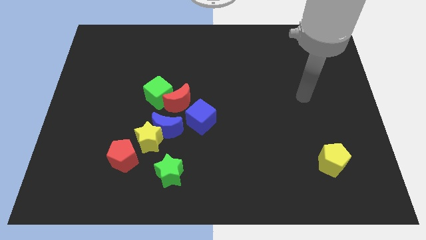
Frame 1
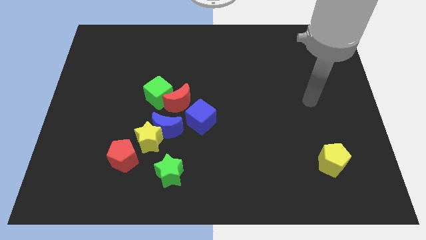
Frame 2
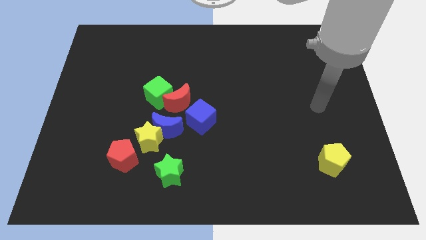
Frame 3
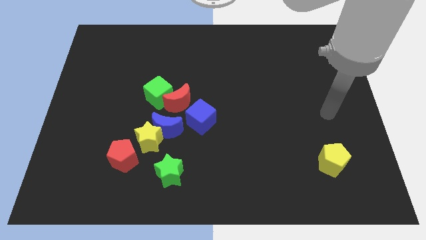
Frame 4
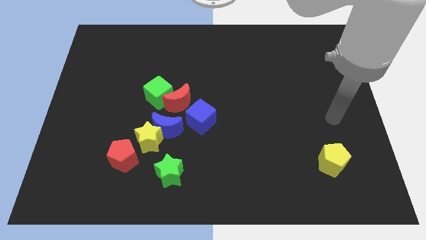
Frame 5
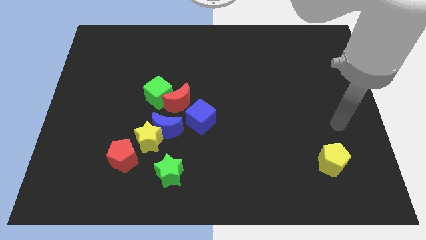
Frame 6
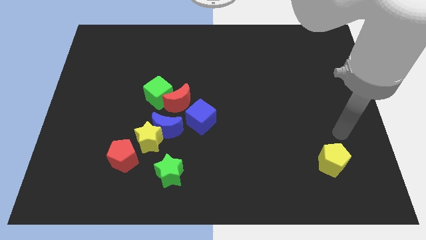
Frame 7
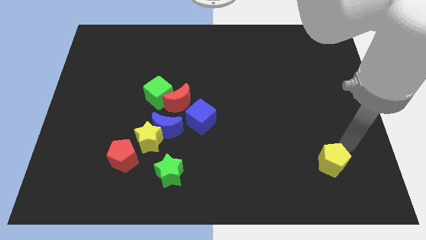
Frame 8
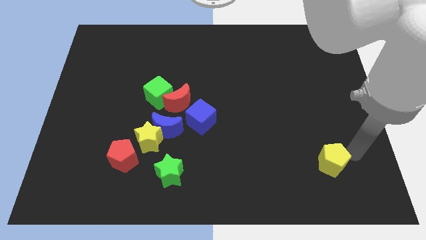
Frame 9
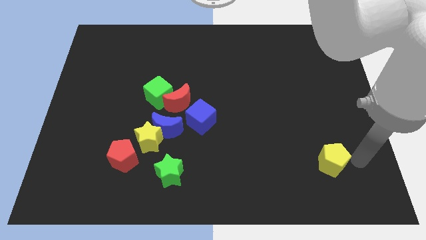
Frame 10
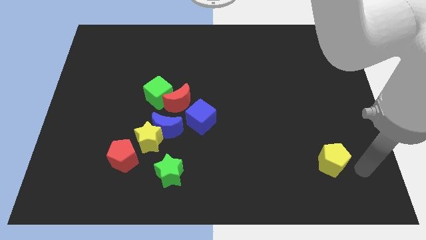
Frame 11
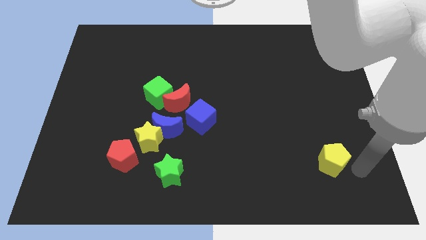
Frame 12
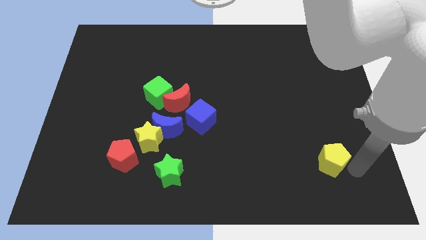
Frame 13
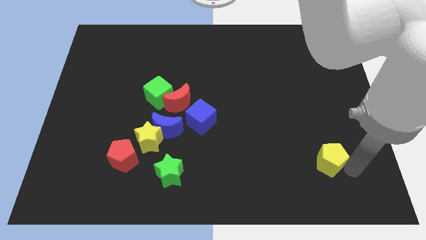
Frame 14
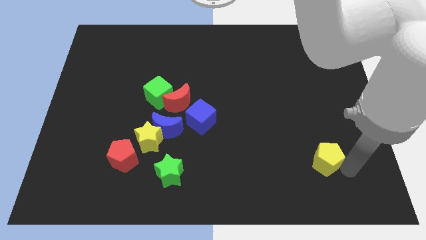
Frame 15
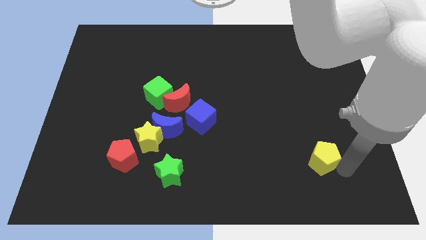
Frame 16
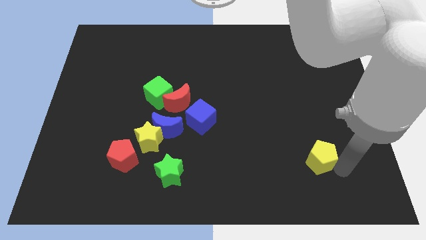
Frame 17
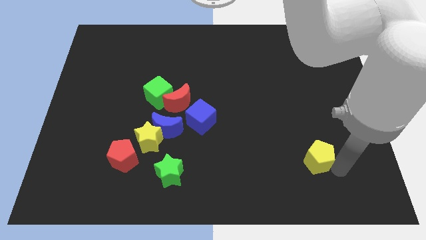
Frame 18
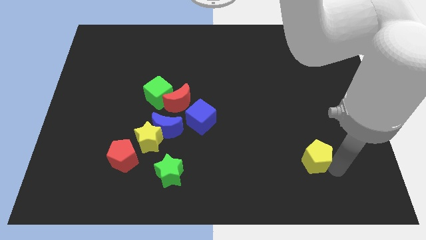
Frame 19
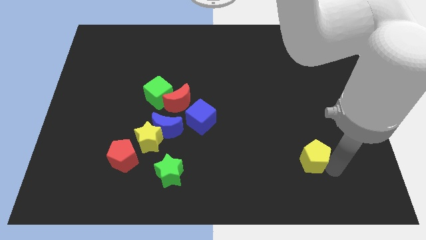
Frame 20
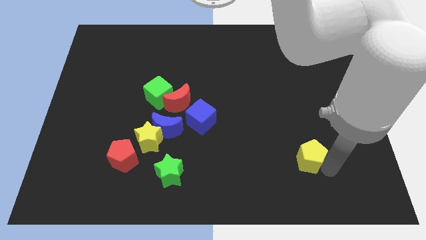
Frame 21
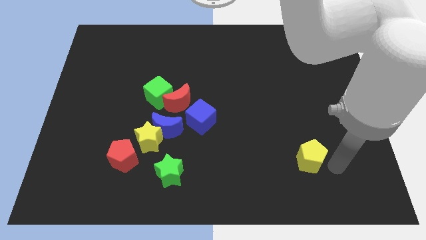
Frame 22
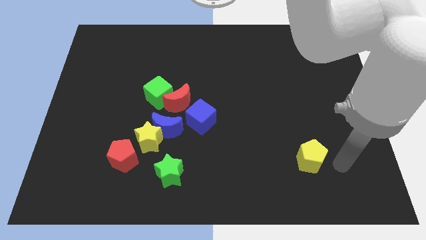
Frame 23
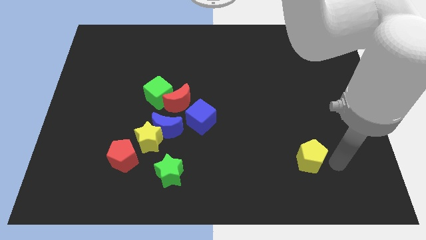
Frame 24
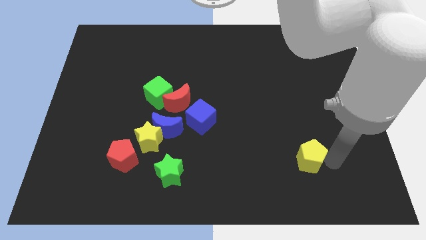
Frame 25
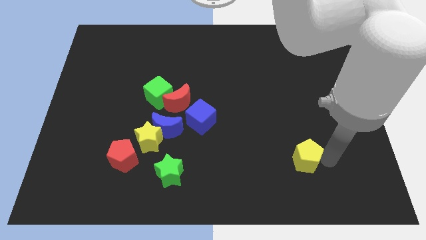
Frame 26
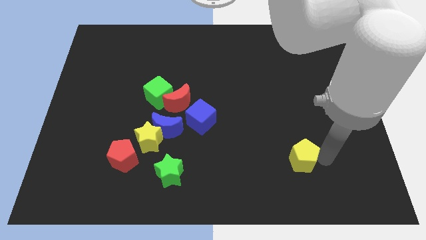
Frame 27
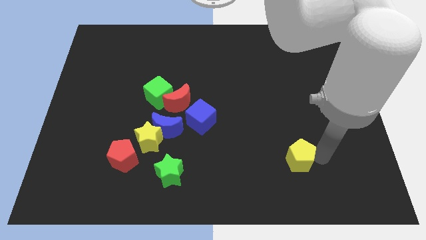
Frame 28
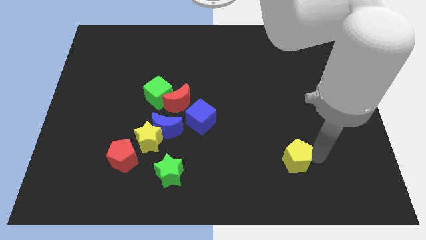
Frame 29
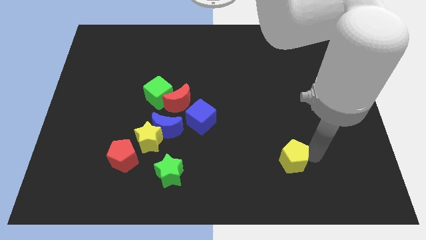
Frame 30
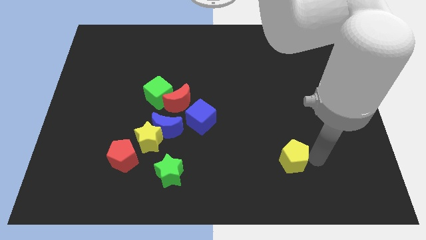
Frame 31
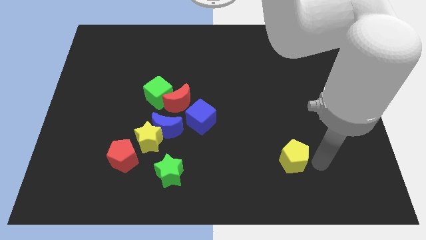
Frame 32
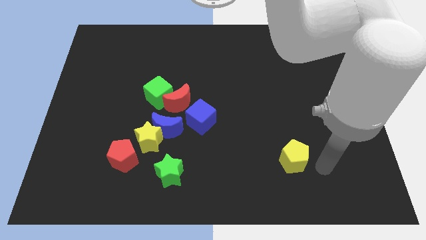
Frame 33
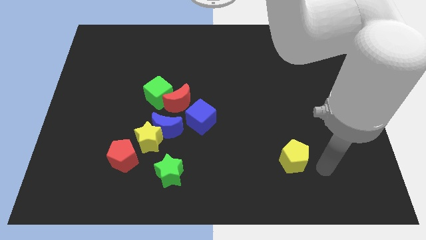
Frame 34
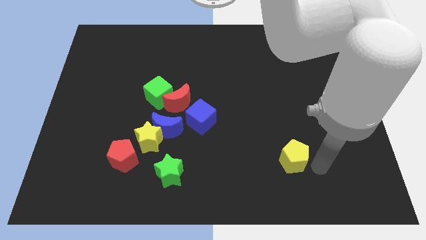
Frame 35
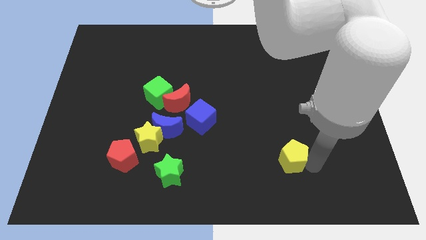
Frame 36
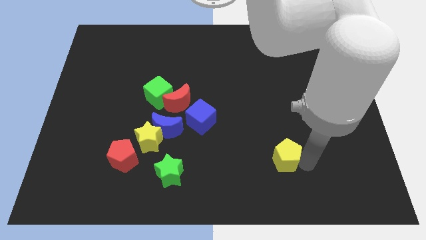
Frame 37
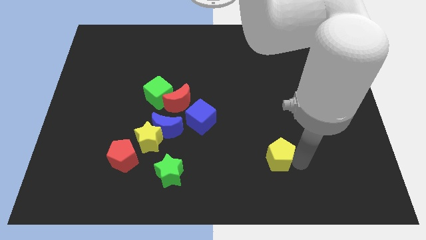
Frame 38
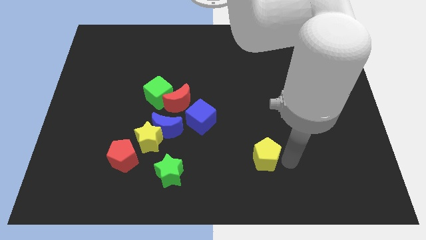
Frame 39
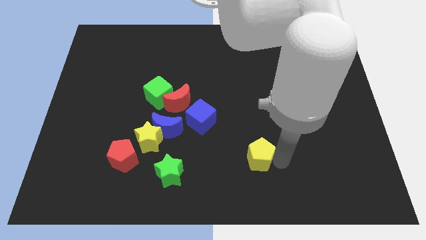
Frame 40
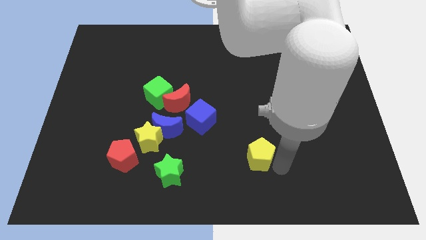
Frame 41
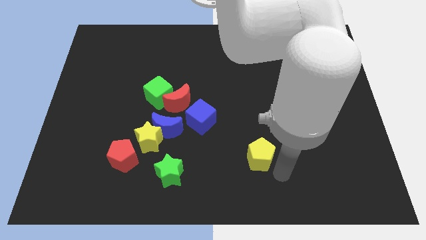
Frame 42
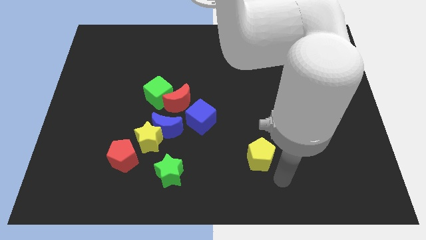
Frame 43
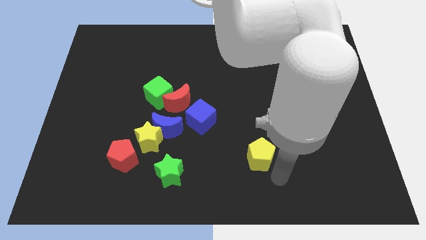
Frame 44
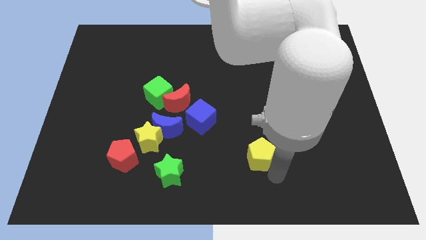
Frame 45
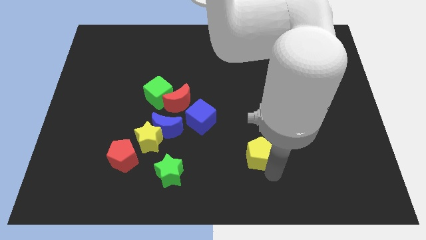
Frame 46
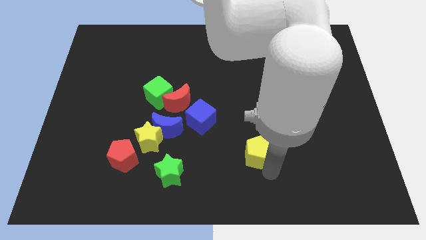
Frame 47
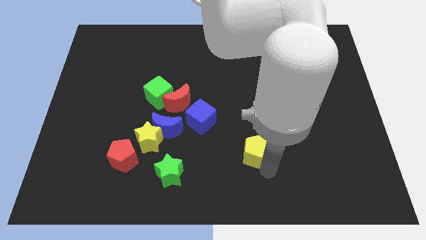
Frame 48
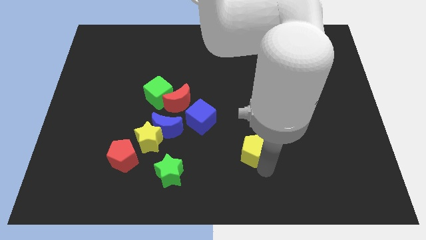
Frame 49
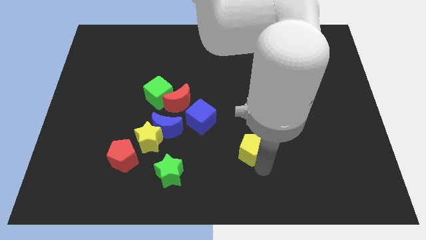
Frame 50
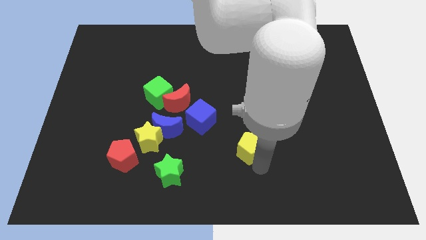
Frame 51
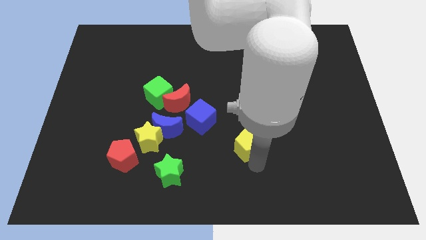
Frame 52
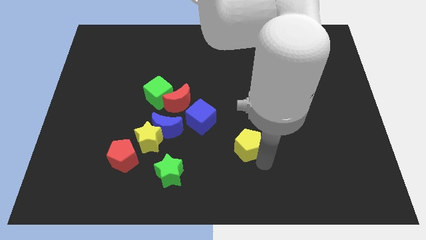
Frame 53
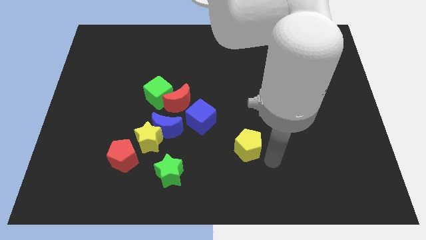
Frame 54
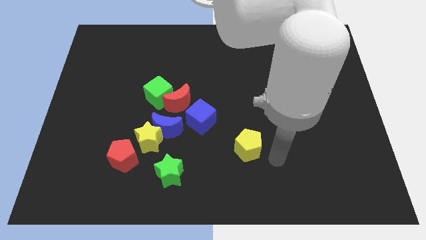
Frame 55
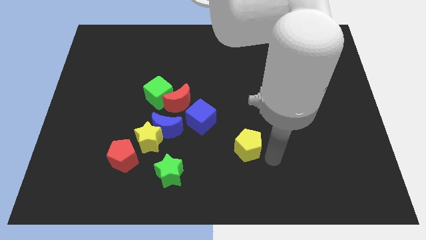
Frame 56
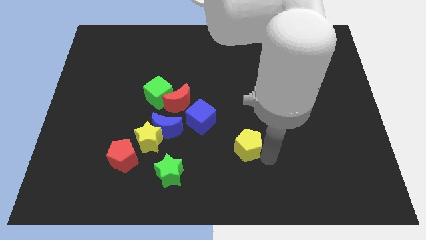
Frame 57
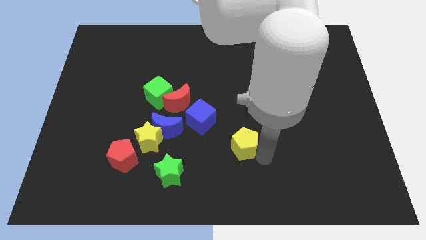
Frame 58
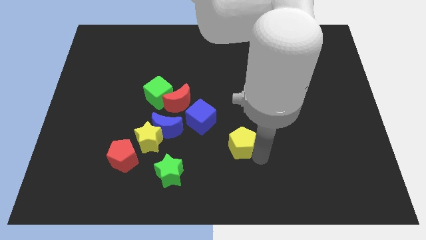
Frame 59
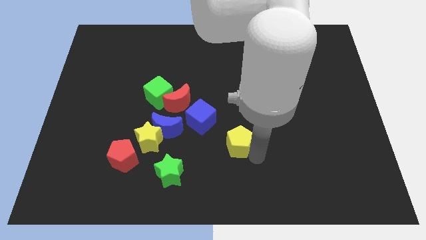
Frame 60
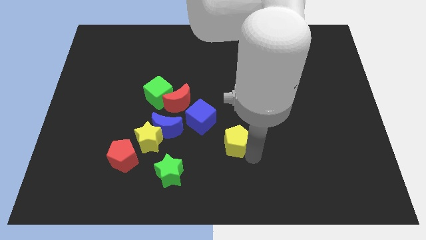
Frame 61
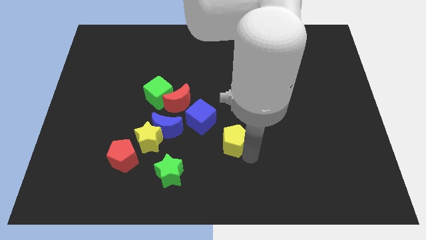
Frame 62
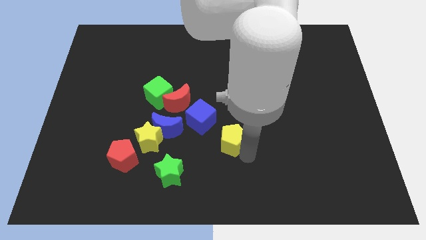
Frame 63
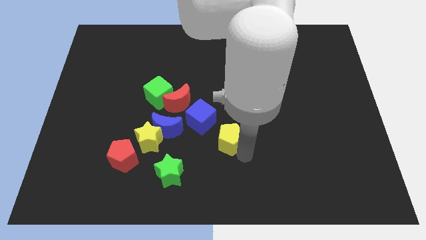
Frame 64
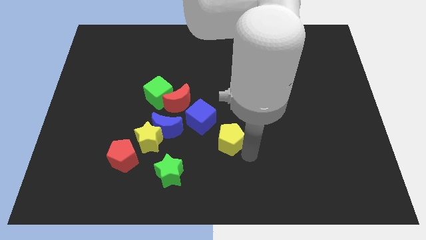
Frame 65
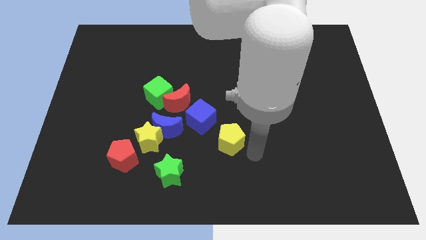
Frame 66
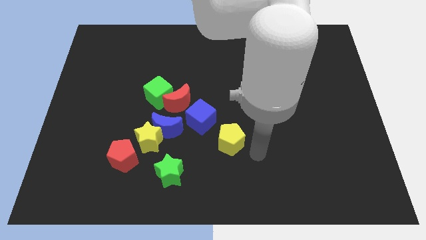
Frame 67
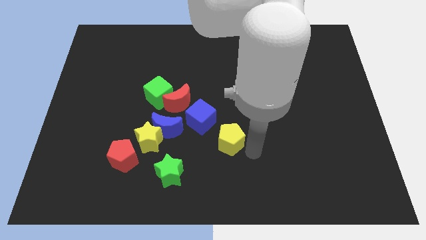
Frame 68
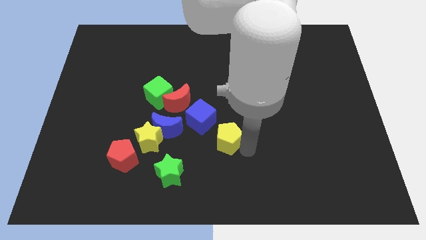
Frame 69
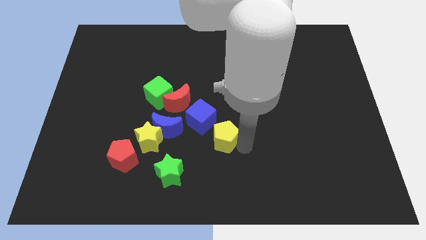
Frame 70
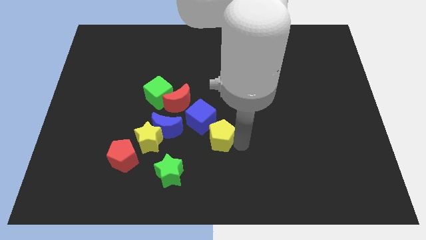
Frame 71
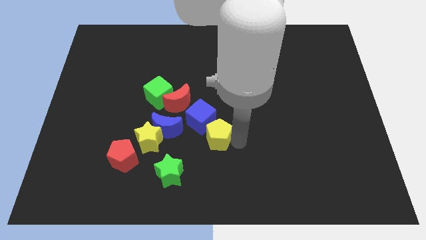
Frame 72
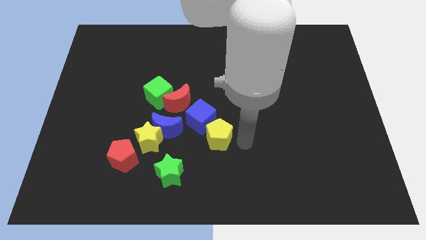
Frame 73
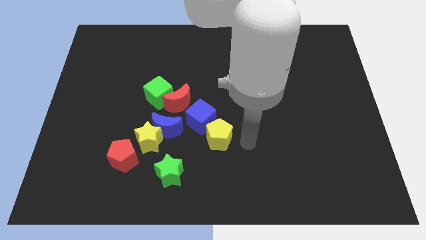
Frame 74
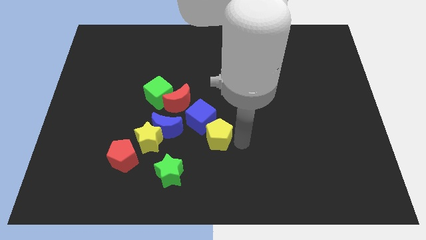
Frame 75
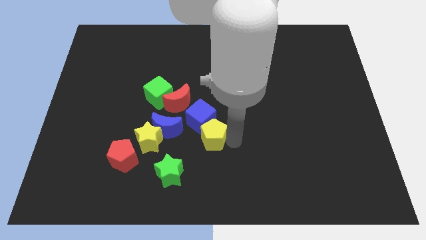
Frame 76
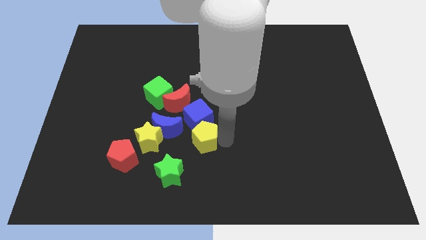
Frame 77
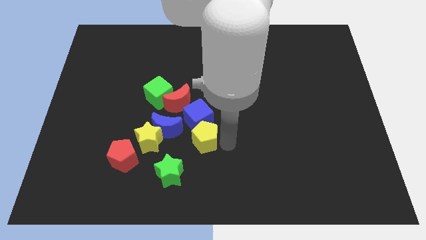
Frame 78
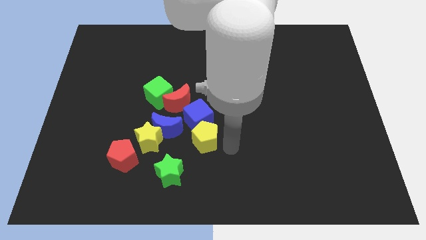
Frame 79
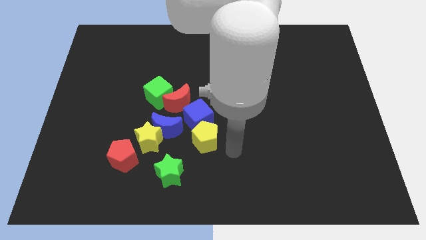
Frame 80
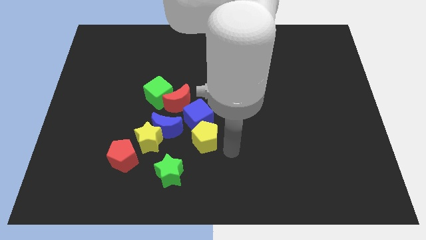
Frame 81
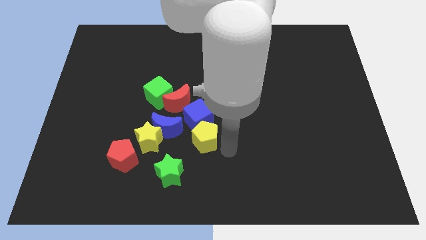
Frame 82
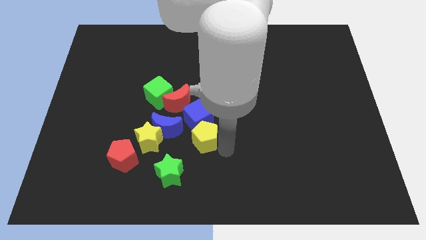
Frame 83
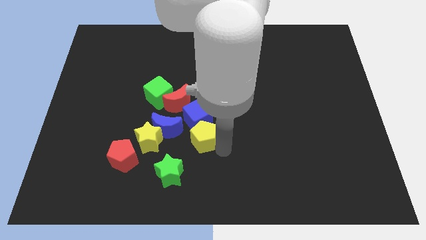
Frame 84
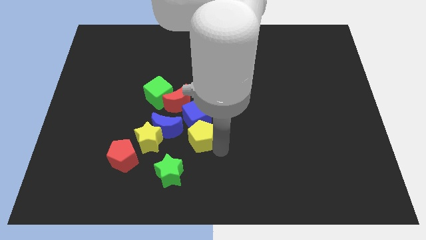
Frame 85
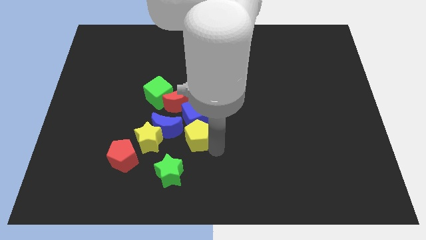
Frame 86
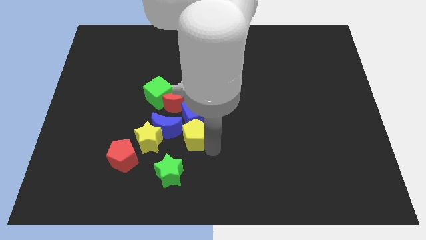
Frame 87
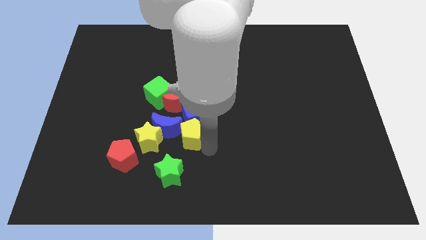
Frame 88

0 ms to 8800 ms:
slide the yellow pentagon next to the blue moon
